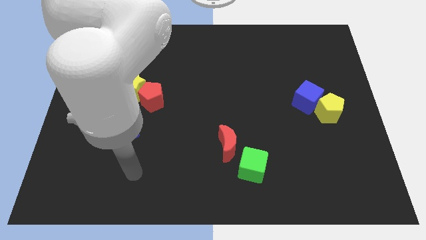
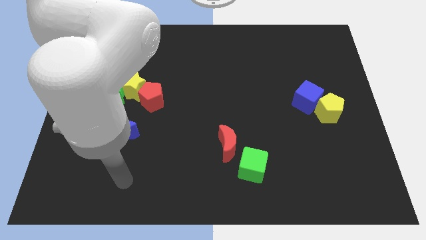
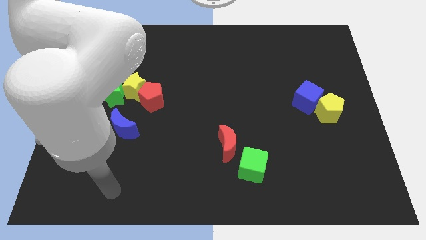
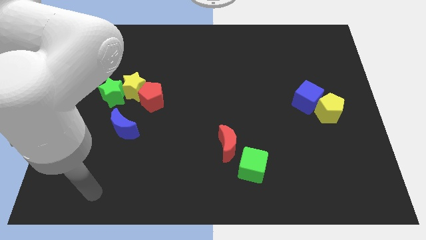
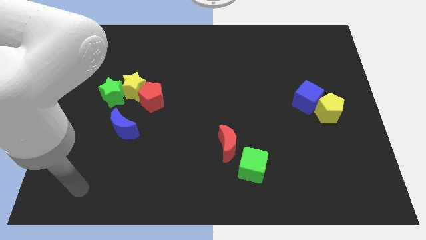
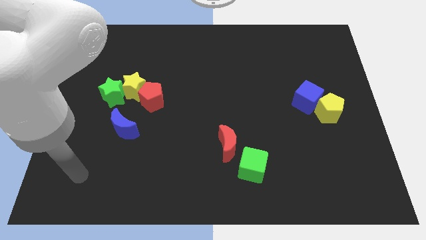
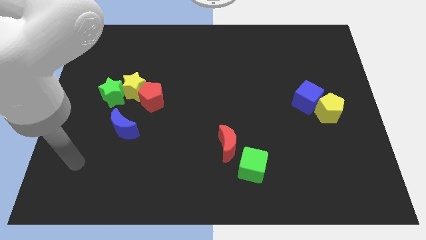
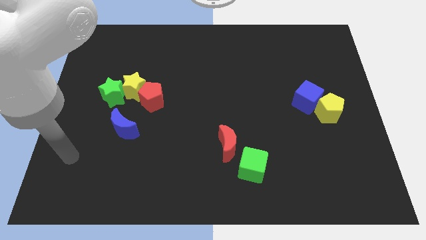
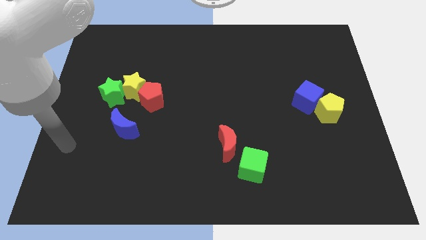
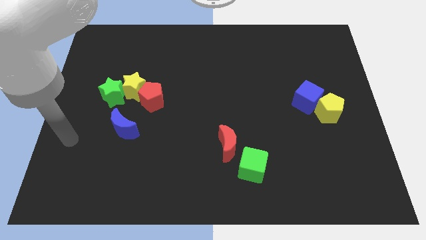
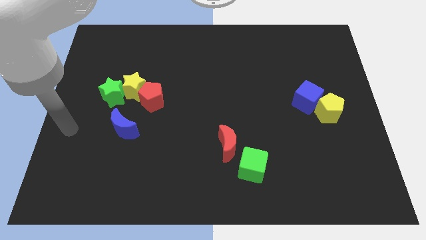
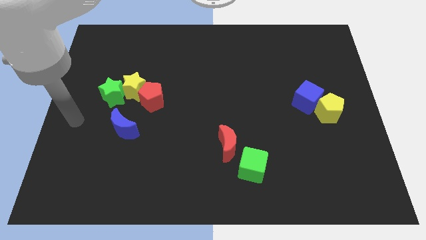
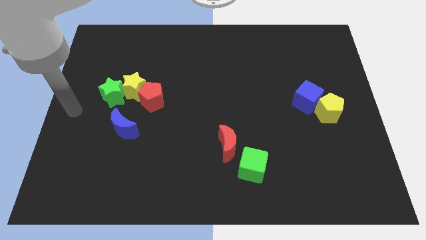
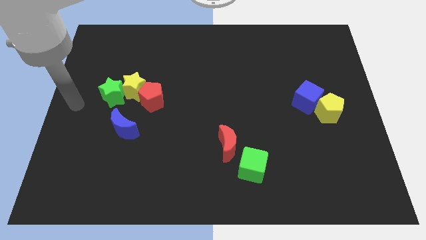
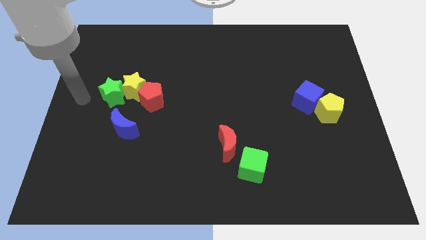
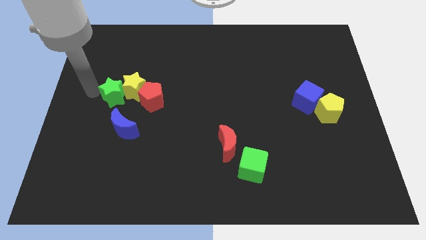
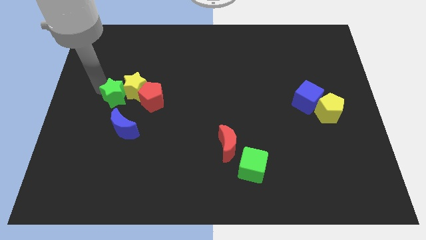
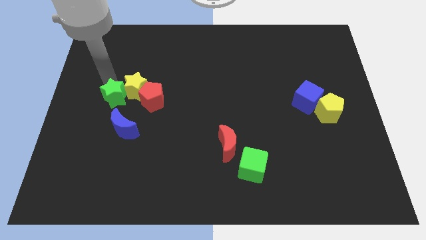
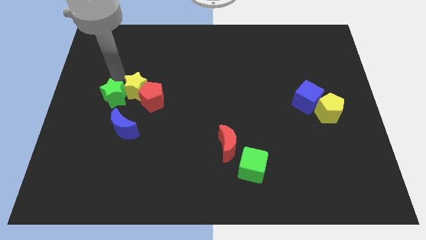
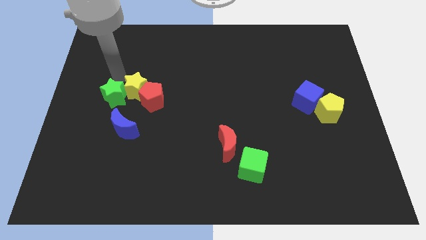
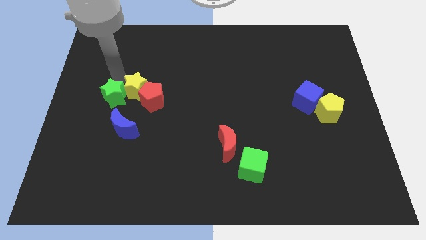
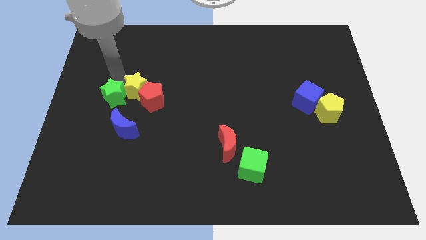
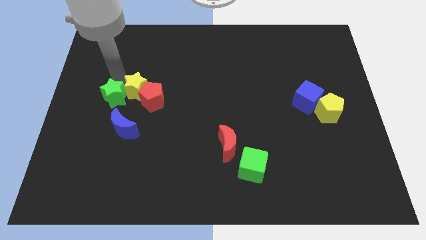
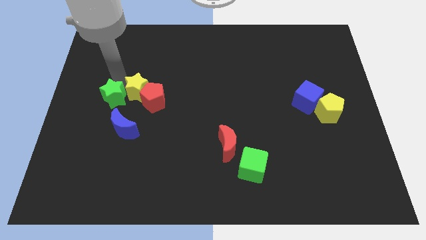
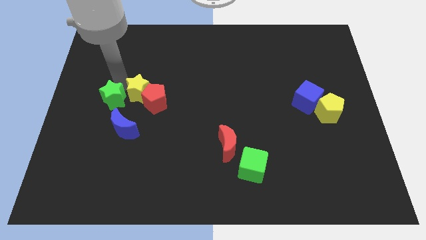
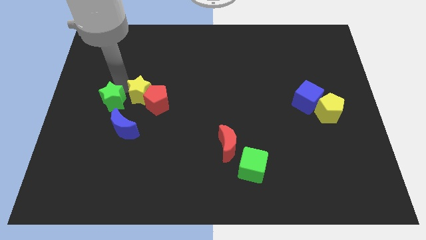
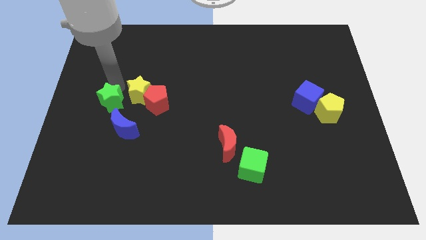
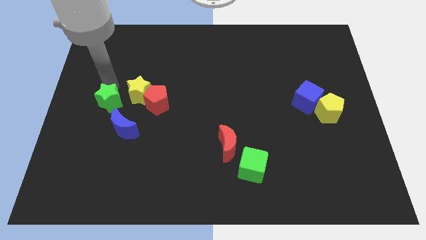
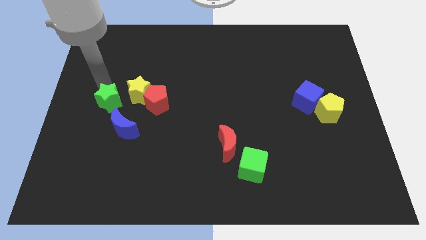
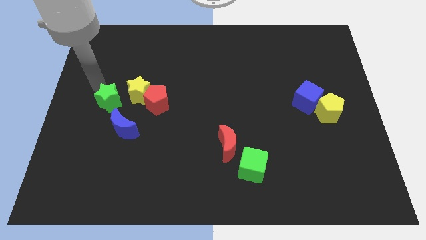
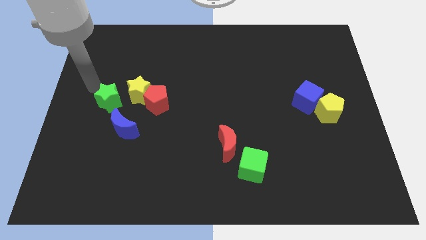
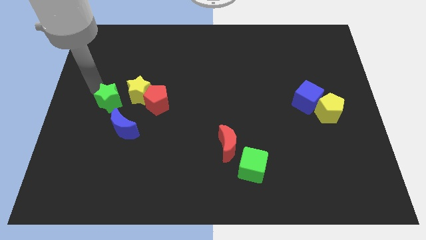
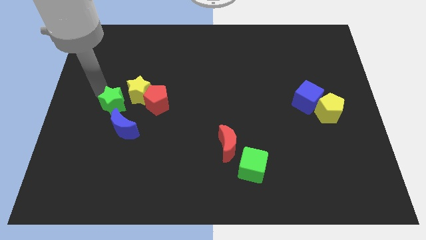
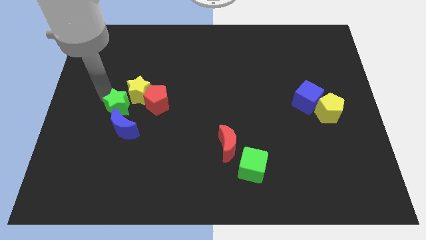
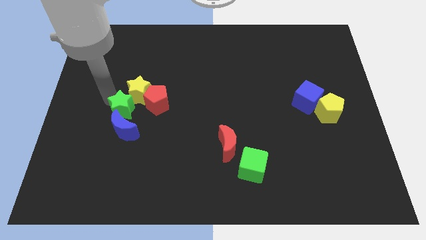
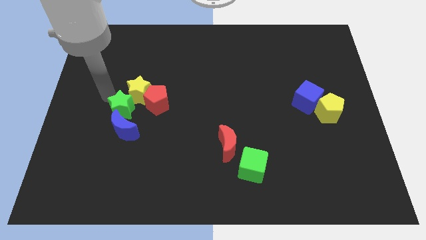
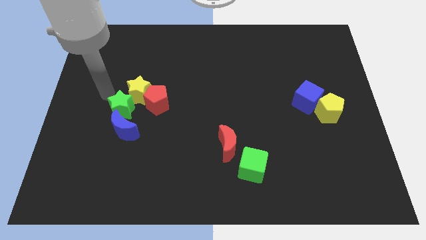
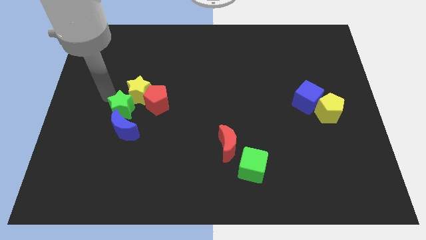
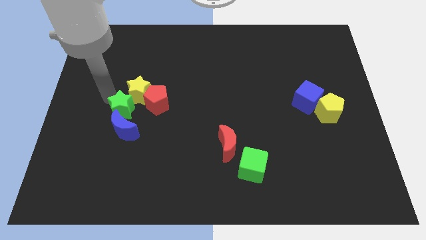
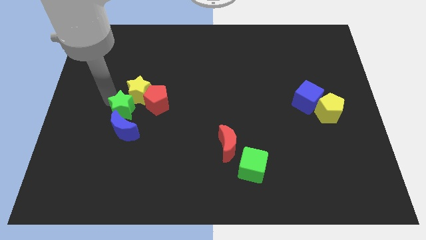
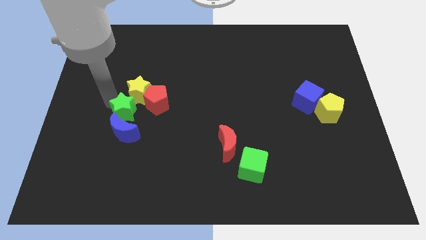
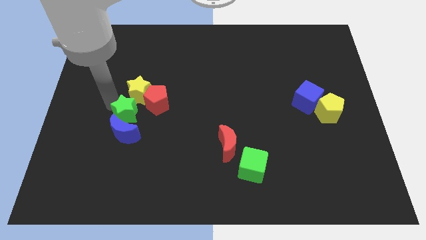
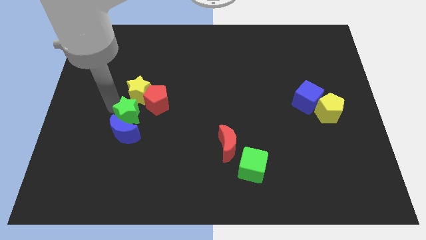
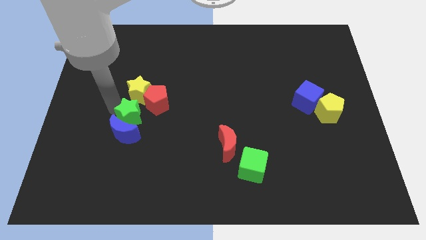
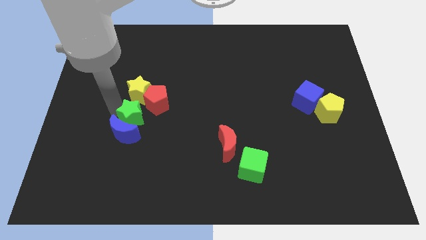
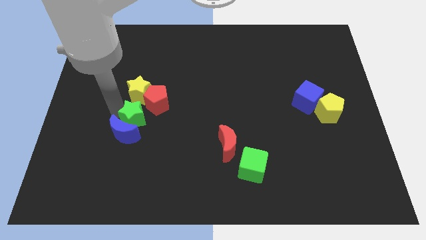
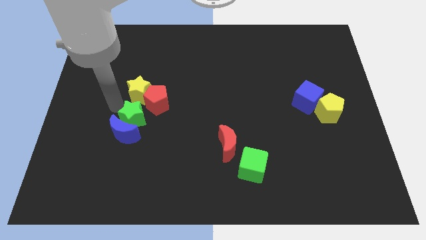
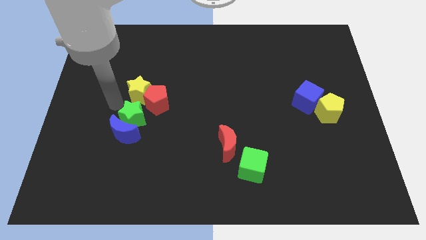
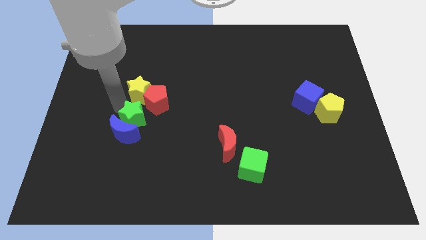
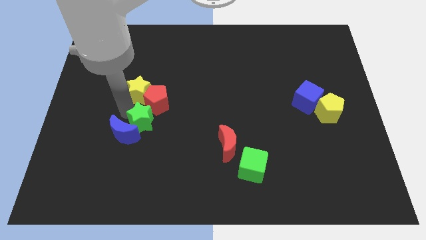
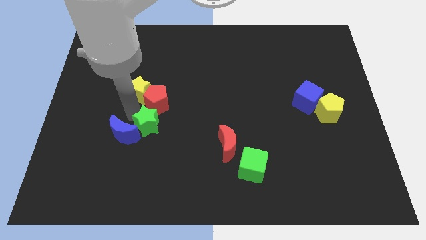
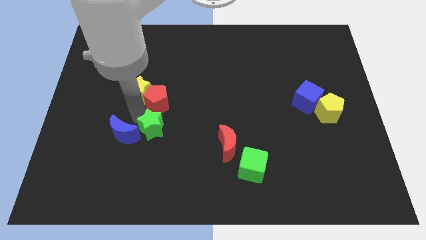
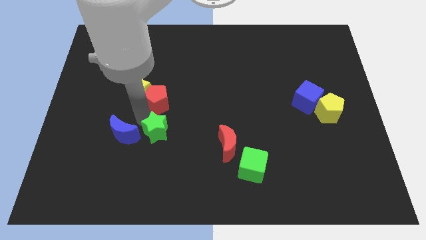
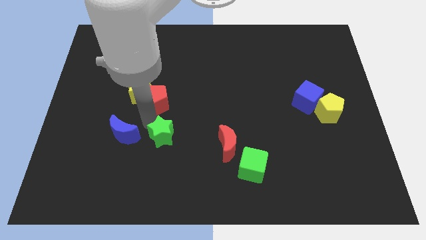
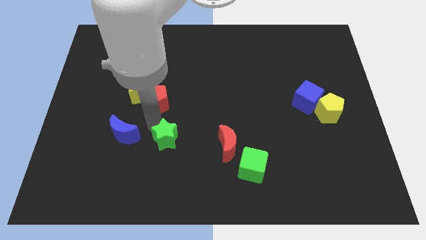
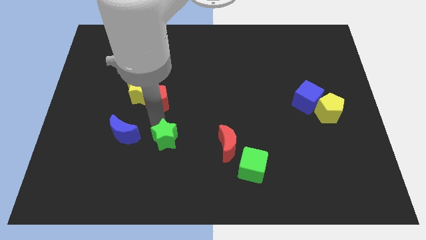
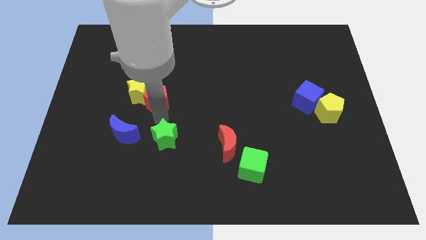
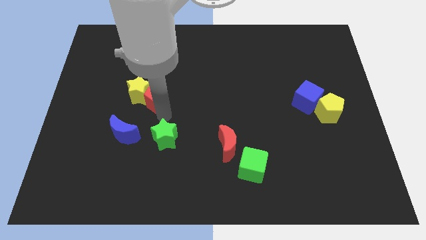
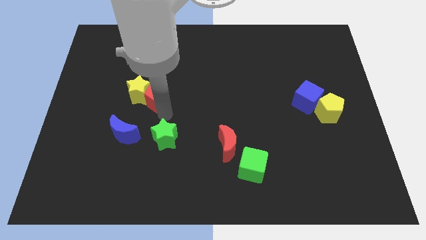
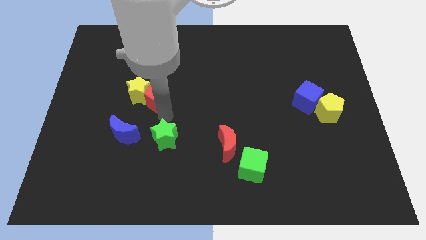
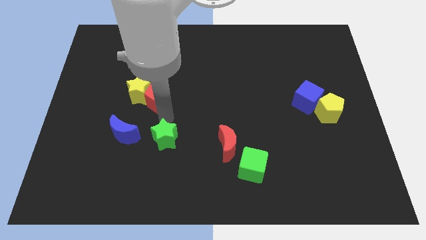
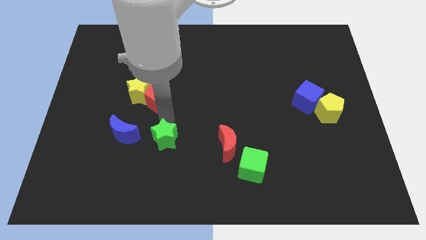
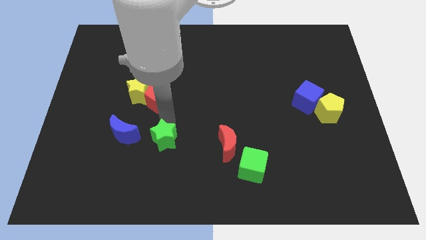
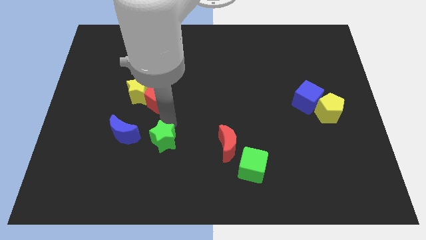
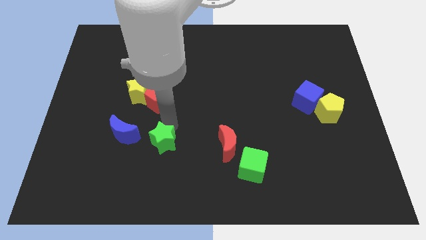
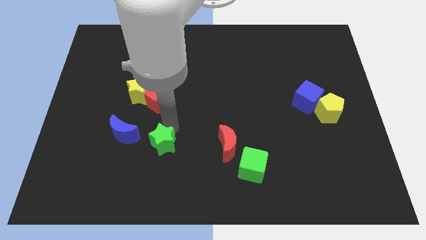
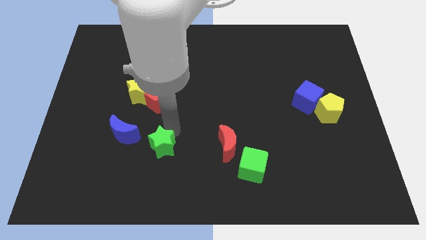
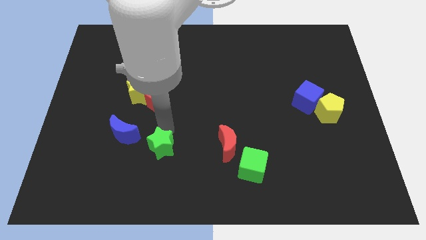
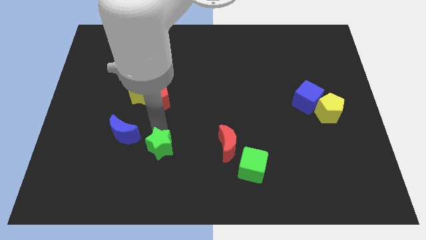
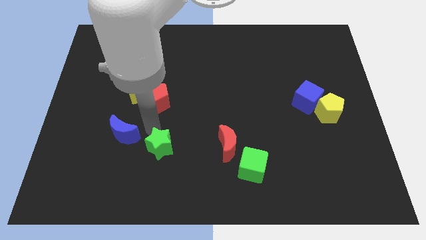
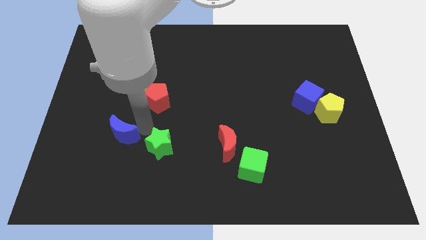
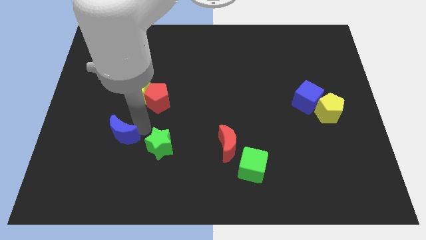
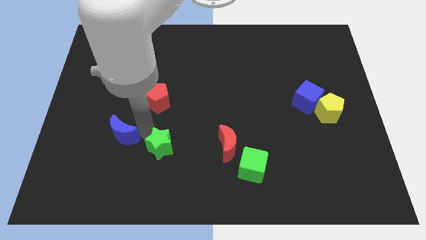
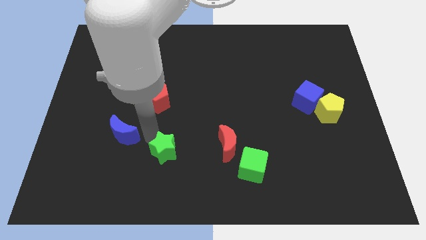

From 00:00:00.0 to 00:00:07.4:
push the green star down and to the right

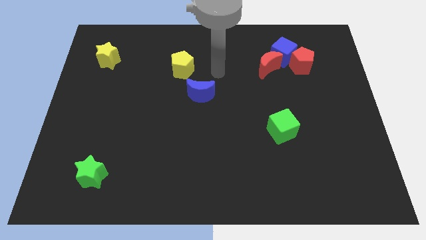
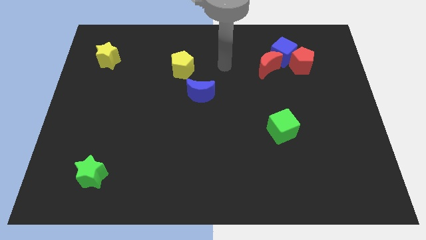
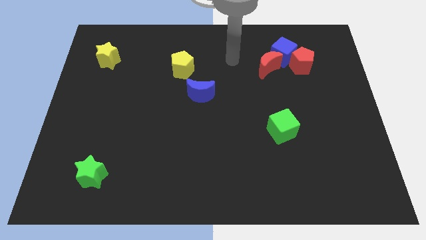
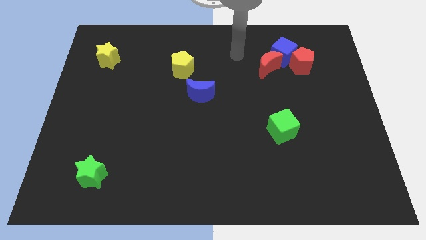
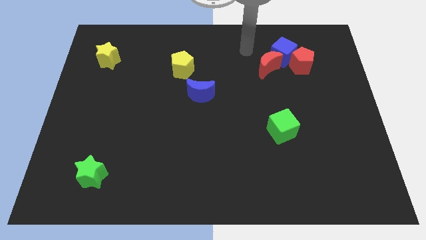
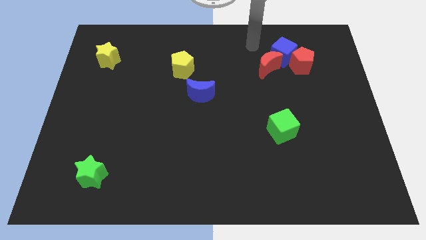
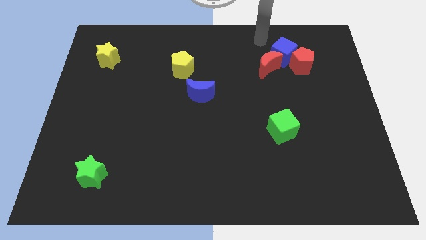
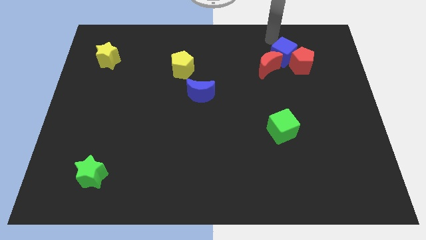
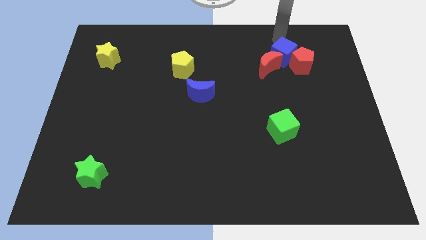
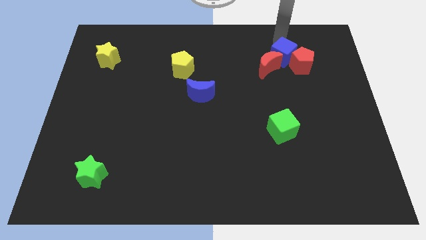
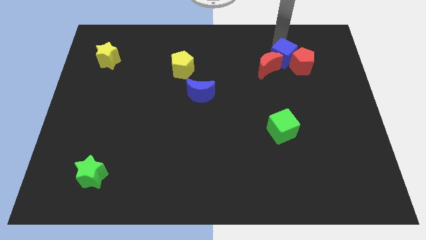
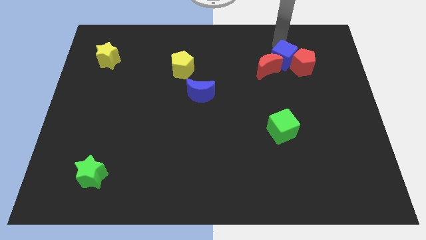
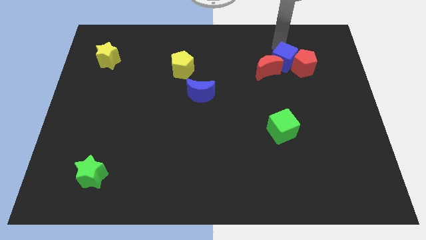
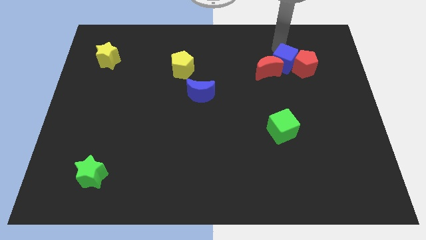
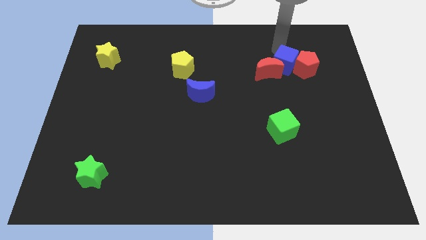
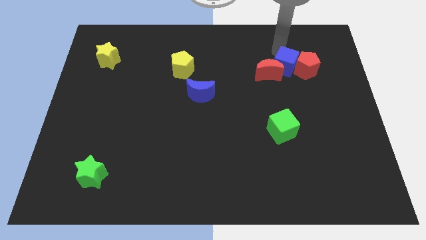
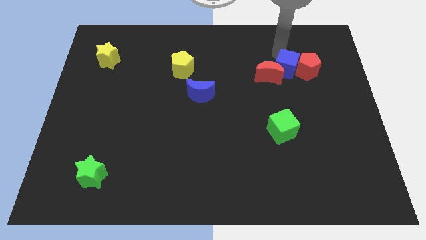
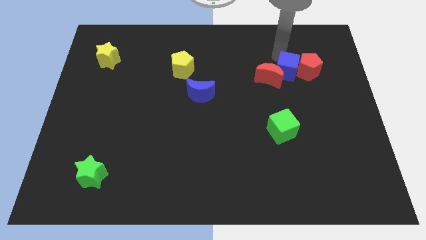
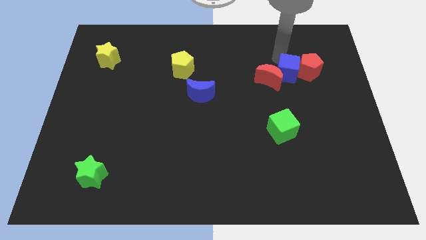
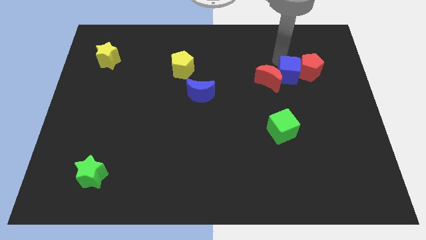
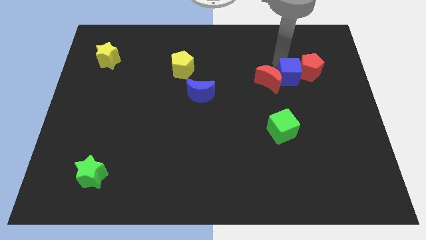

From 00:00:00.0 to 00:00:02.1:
slightly slide the blue cube downwards
